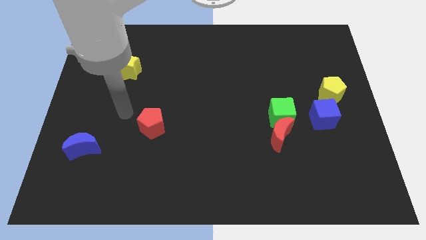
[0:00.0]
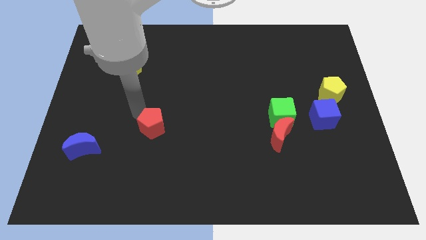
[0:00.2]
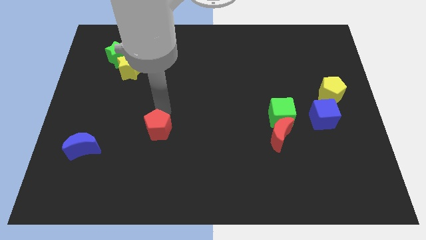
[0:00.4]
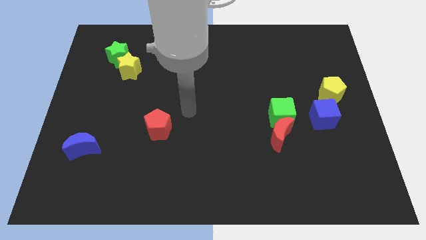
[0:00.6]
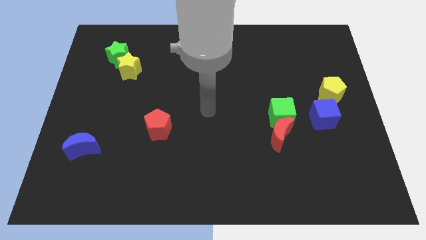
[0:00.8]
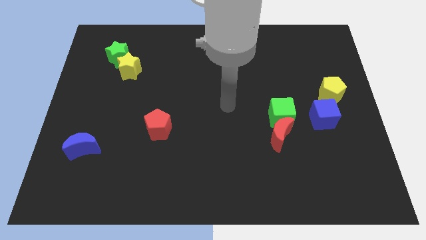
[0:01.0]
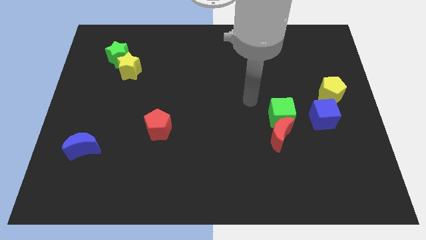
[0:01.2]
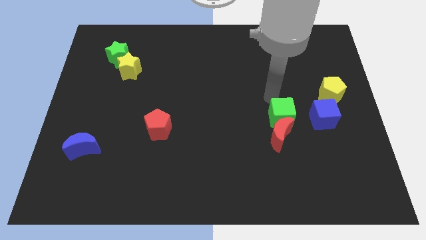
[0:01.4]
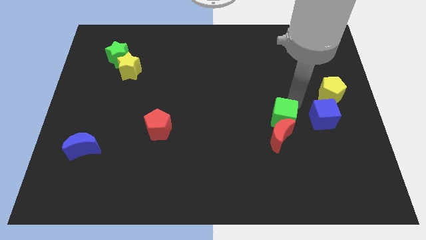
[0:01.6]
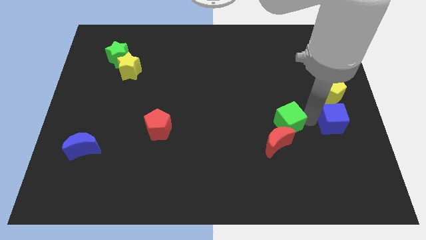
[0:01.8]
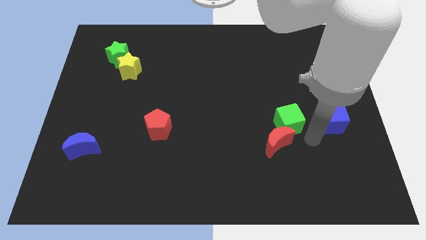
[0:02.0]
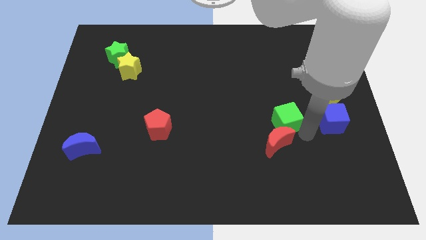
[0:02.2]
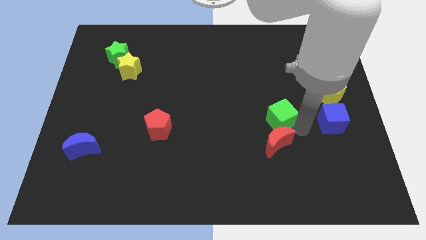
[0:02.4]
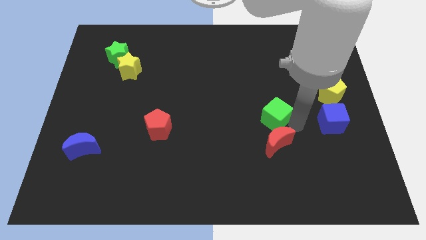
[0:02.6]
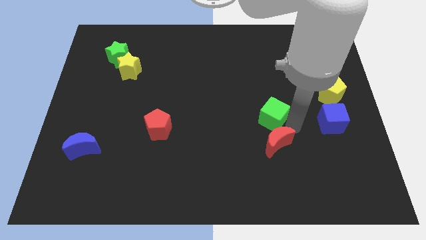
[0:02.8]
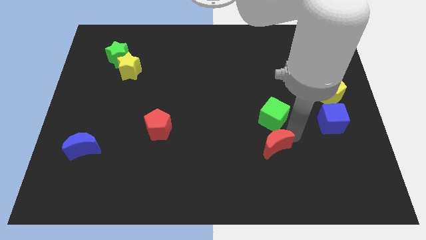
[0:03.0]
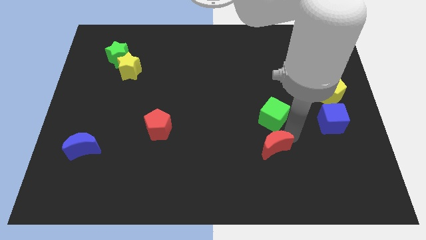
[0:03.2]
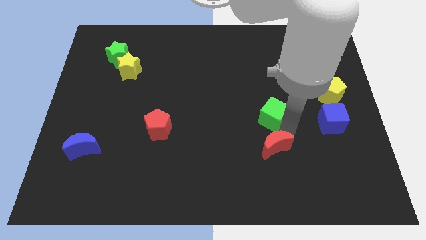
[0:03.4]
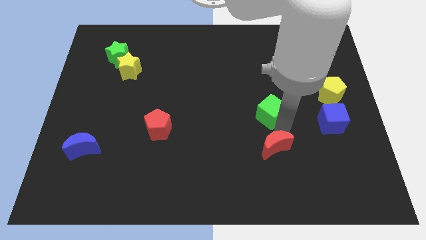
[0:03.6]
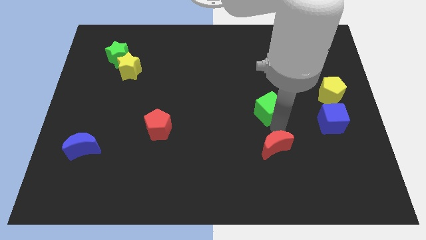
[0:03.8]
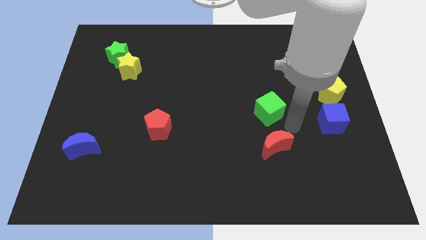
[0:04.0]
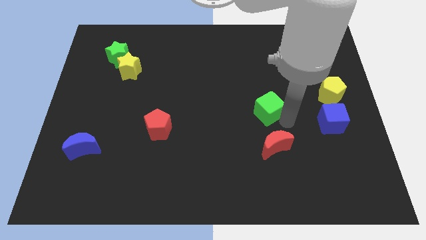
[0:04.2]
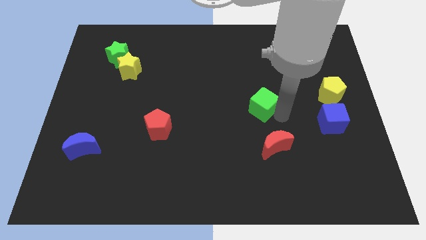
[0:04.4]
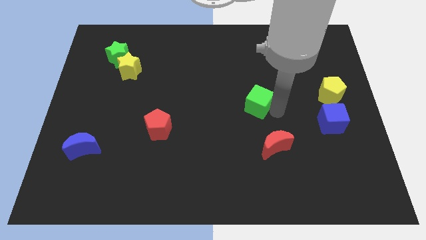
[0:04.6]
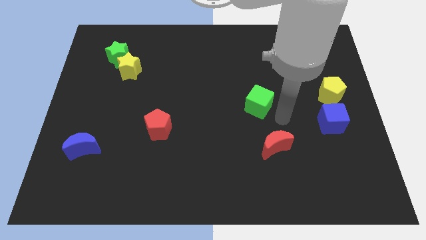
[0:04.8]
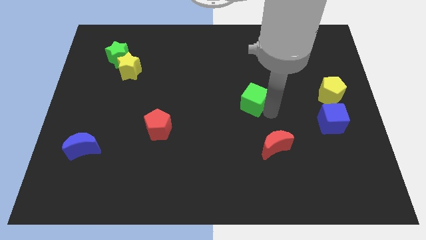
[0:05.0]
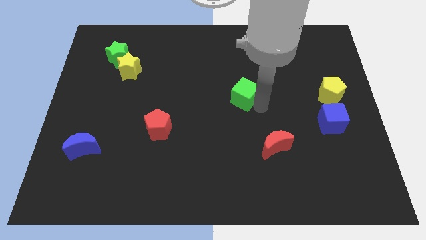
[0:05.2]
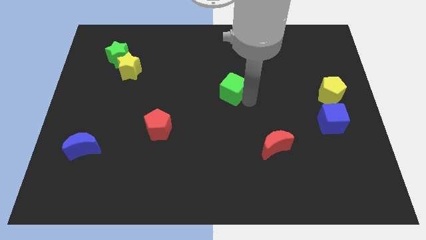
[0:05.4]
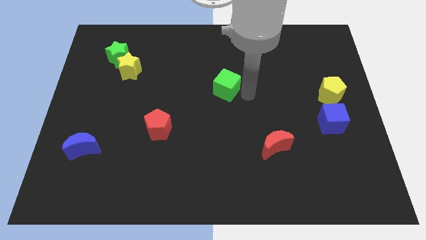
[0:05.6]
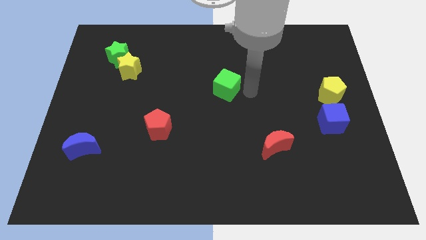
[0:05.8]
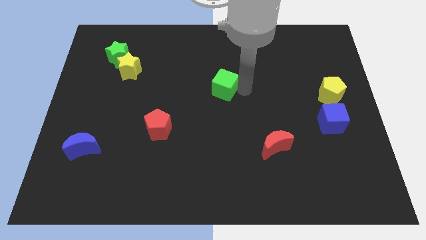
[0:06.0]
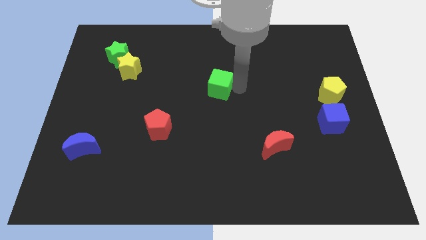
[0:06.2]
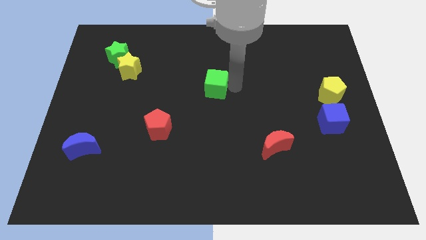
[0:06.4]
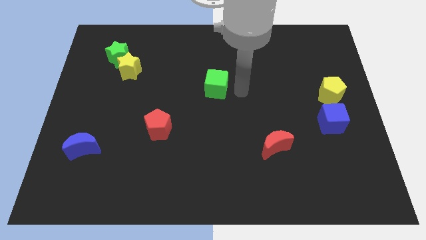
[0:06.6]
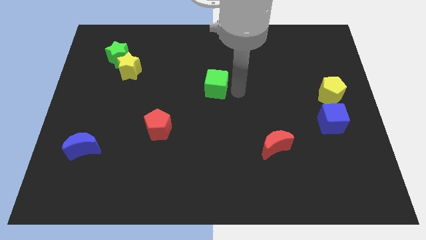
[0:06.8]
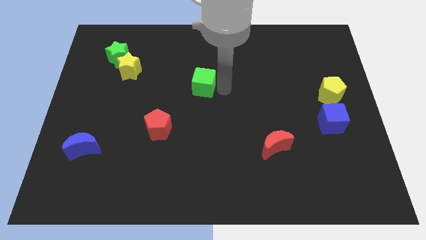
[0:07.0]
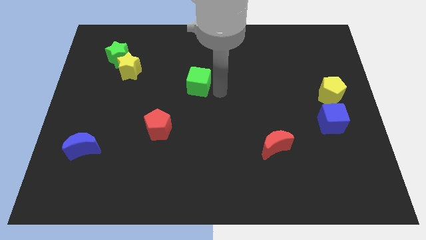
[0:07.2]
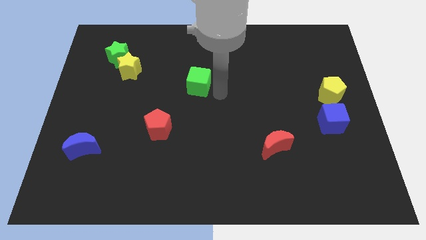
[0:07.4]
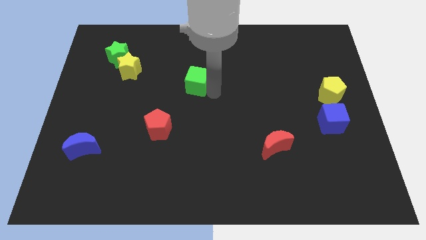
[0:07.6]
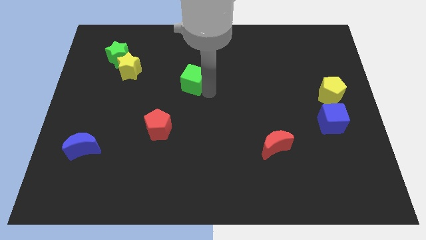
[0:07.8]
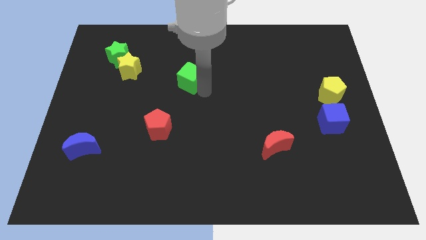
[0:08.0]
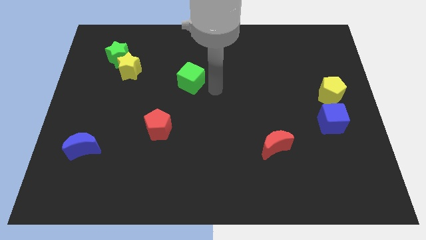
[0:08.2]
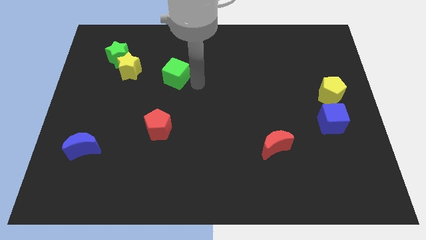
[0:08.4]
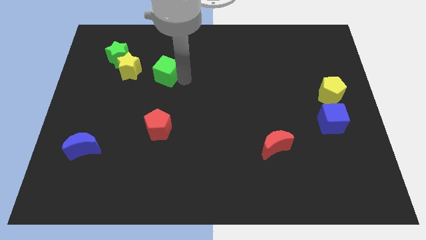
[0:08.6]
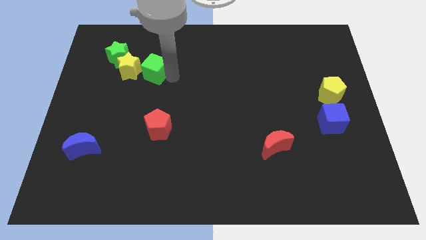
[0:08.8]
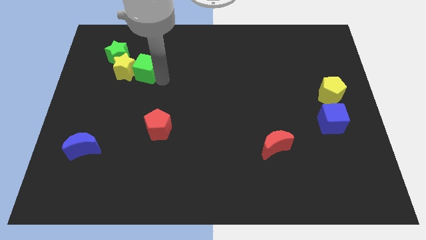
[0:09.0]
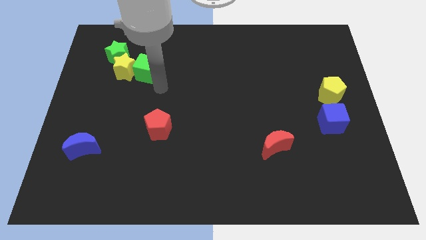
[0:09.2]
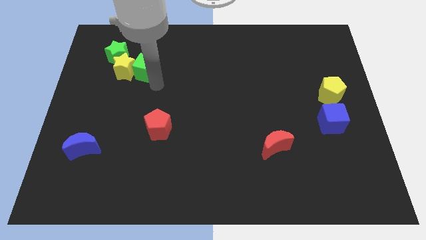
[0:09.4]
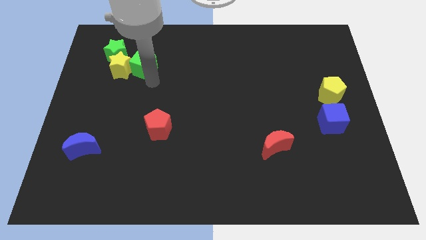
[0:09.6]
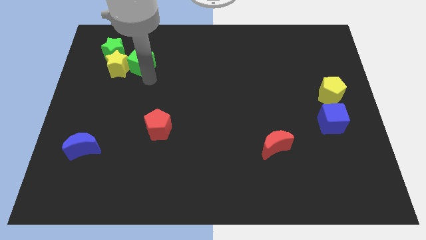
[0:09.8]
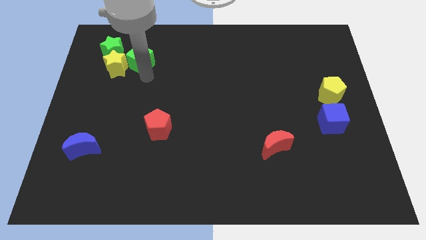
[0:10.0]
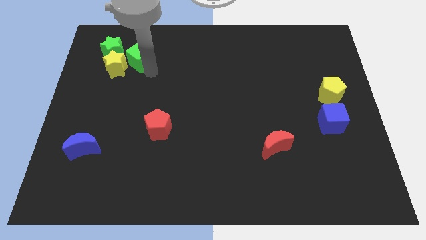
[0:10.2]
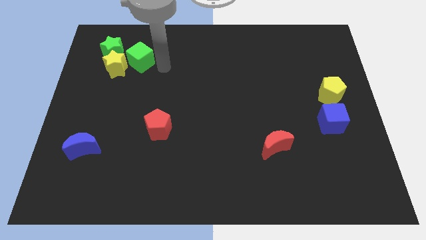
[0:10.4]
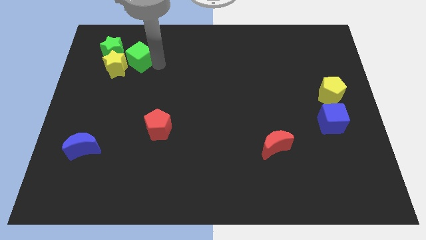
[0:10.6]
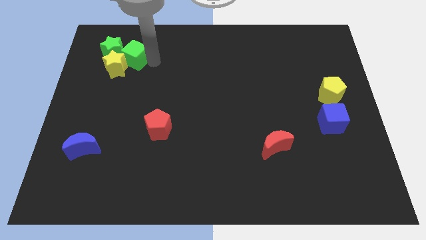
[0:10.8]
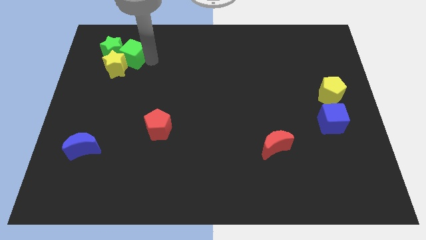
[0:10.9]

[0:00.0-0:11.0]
push the green cube next to the green star

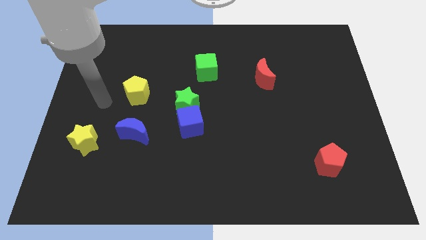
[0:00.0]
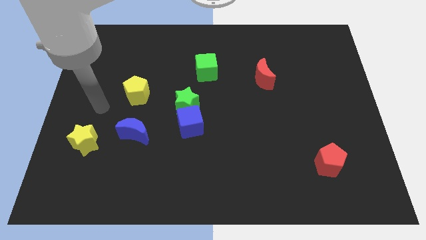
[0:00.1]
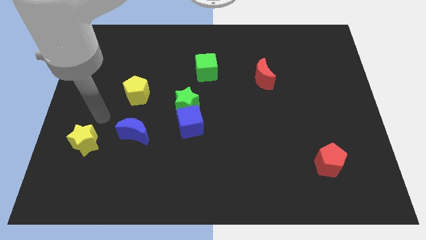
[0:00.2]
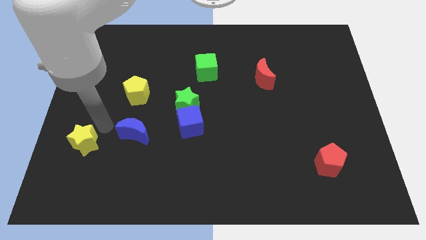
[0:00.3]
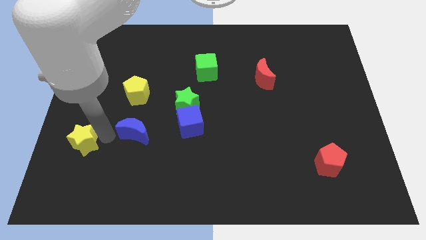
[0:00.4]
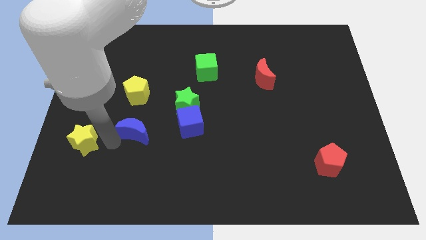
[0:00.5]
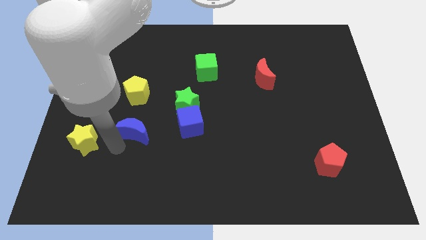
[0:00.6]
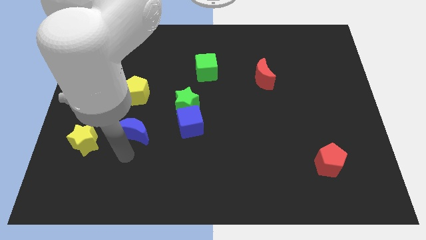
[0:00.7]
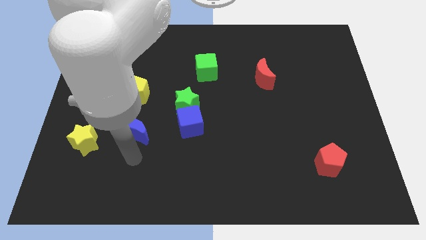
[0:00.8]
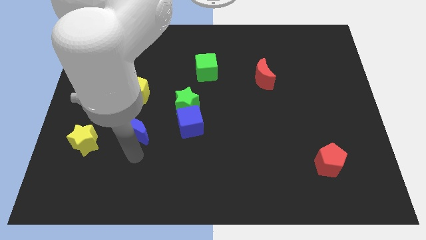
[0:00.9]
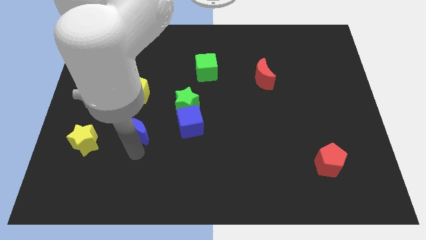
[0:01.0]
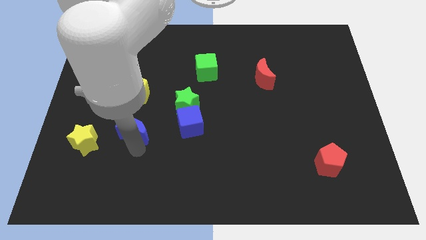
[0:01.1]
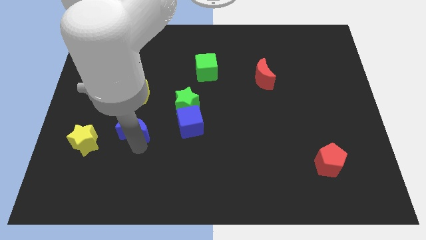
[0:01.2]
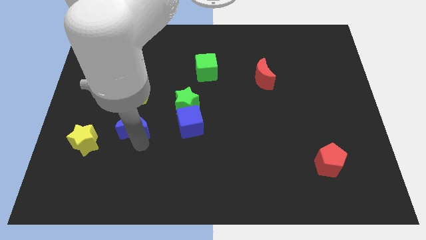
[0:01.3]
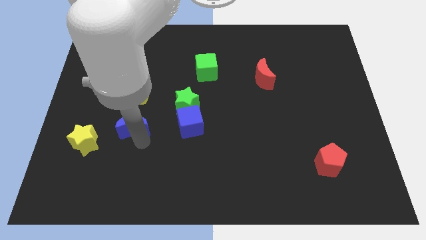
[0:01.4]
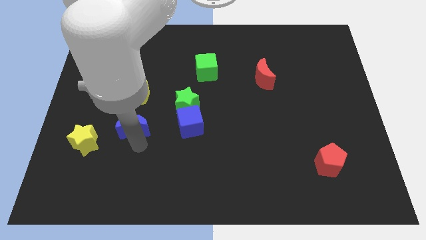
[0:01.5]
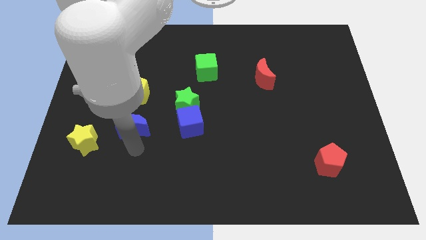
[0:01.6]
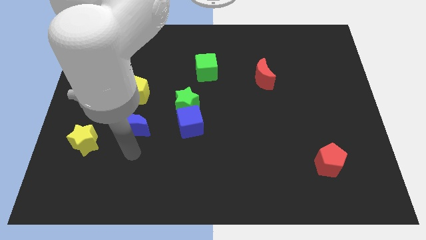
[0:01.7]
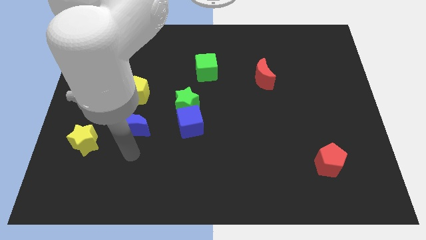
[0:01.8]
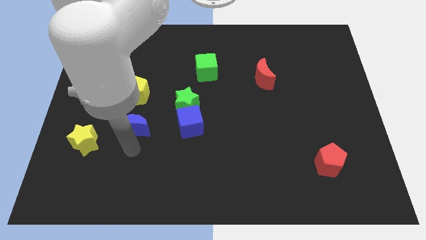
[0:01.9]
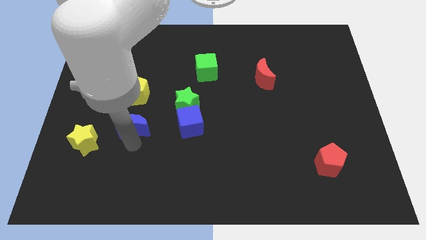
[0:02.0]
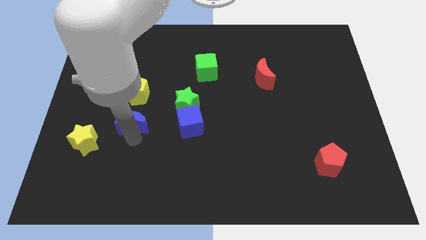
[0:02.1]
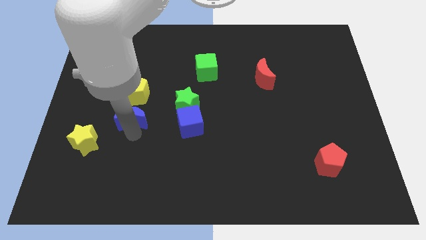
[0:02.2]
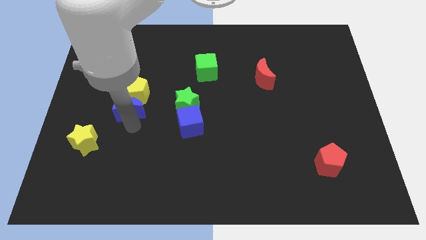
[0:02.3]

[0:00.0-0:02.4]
put the blue moon next to the yellow pentagon
